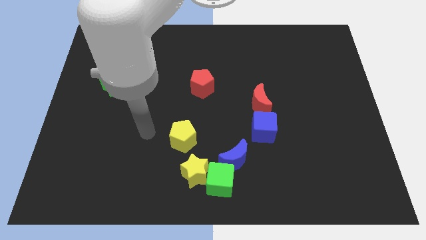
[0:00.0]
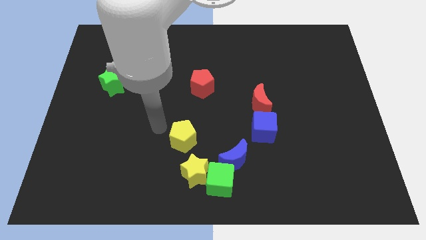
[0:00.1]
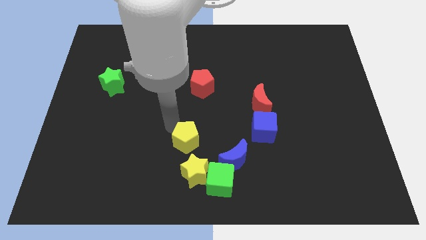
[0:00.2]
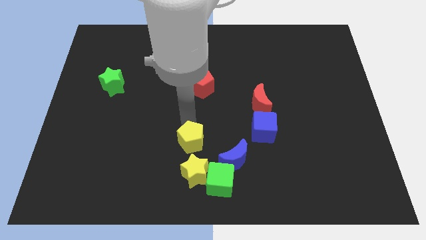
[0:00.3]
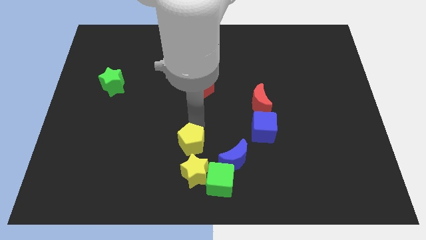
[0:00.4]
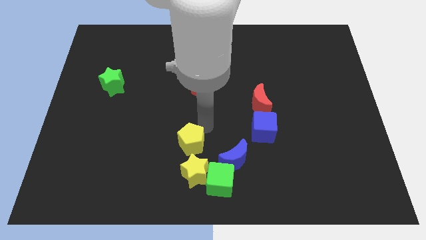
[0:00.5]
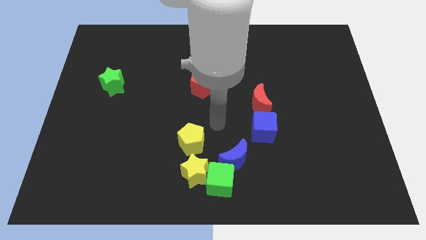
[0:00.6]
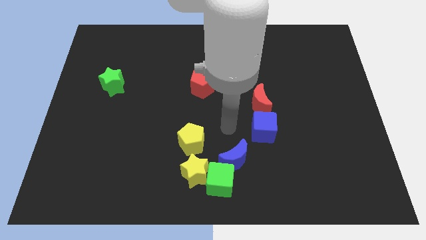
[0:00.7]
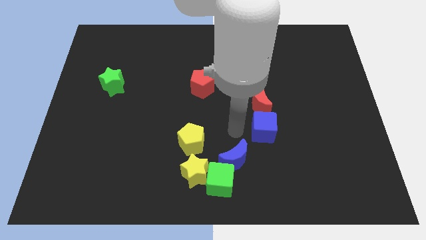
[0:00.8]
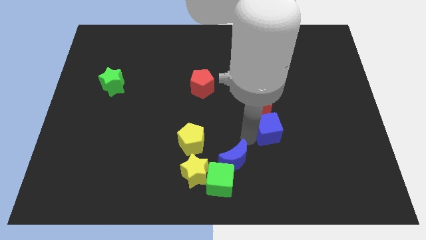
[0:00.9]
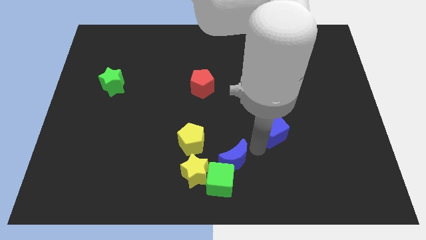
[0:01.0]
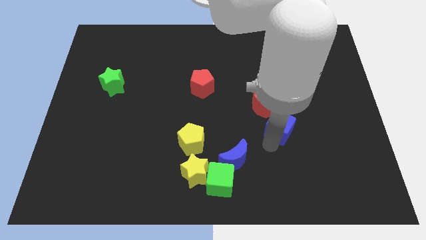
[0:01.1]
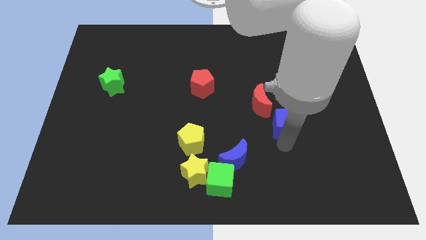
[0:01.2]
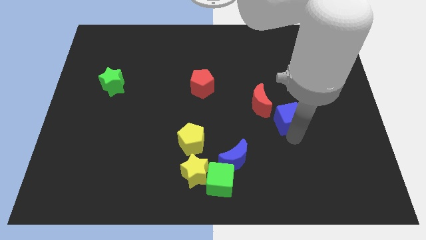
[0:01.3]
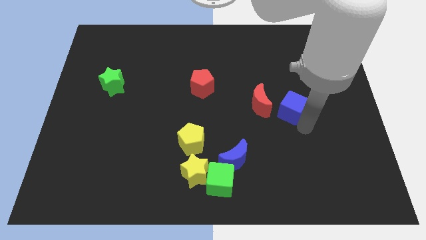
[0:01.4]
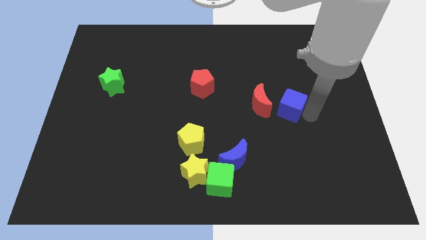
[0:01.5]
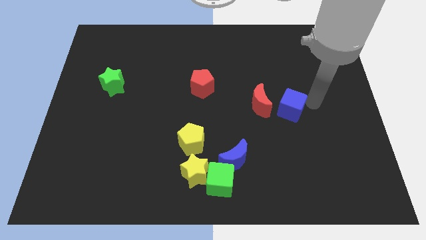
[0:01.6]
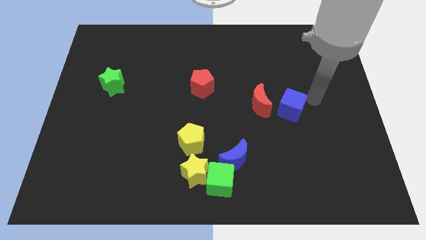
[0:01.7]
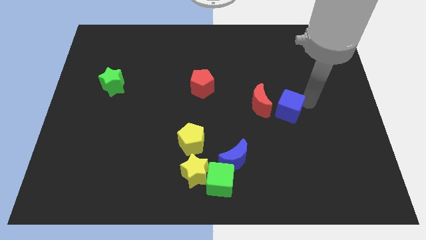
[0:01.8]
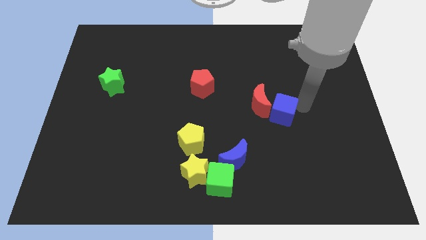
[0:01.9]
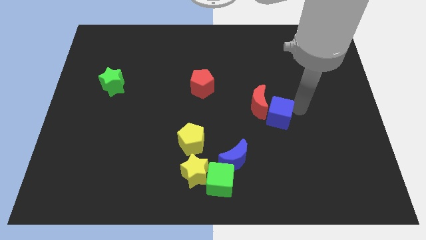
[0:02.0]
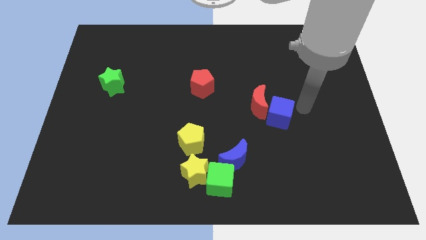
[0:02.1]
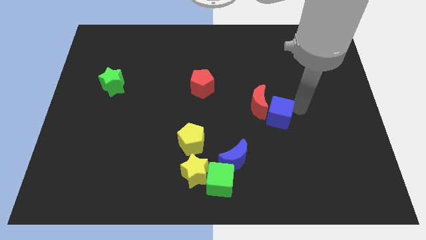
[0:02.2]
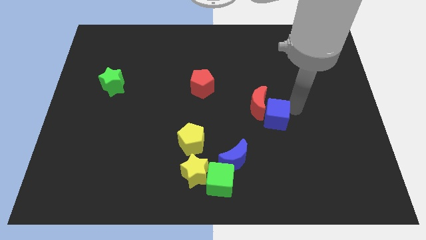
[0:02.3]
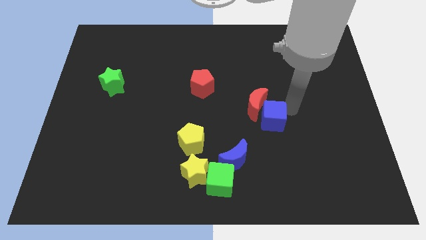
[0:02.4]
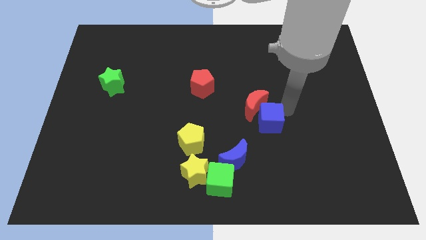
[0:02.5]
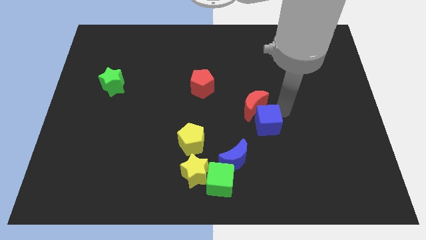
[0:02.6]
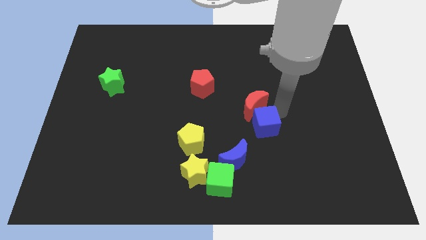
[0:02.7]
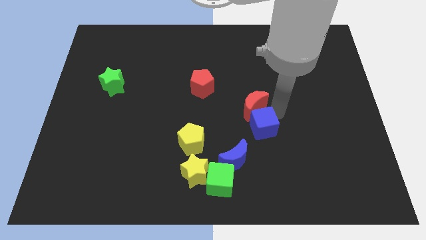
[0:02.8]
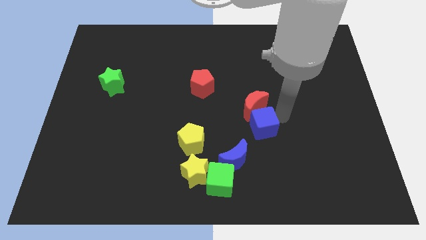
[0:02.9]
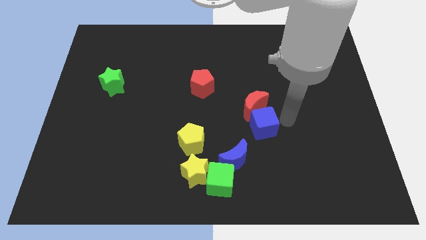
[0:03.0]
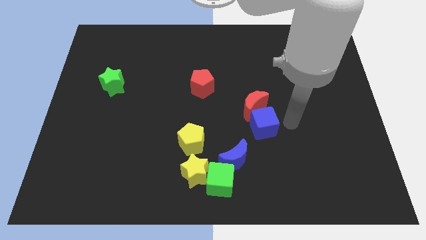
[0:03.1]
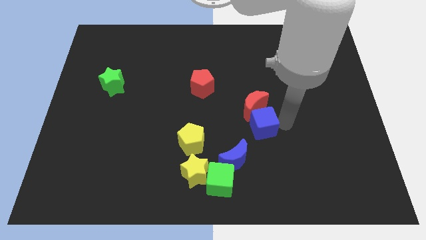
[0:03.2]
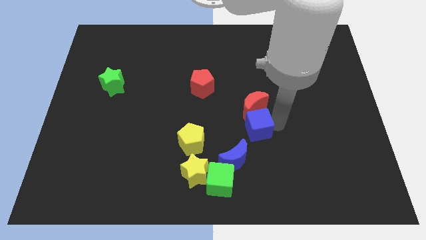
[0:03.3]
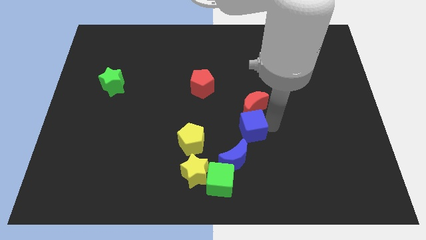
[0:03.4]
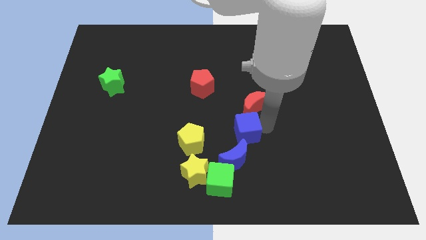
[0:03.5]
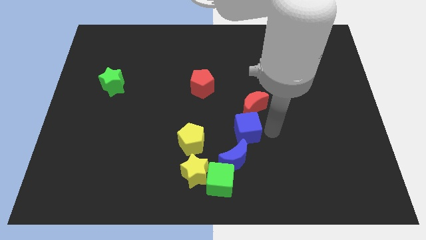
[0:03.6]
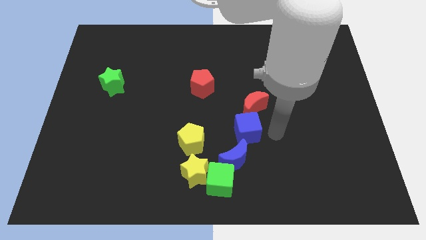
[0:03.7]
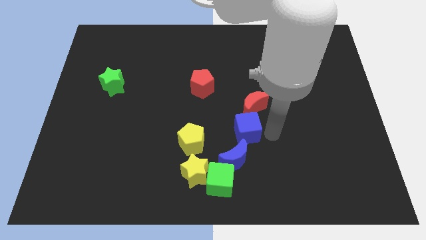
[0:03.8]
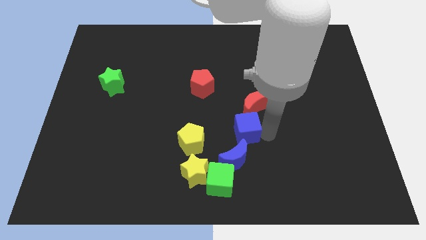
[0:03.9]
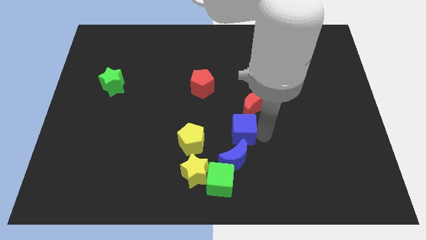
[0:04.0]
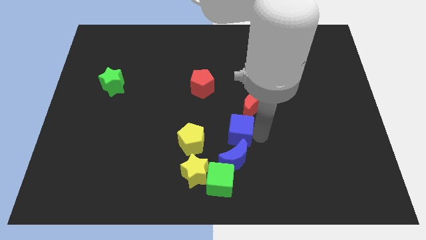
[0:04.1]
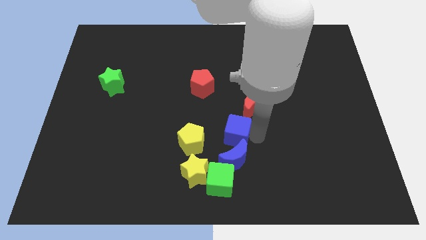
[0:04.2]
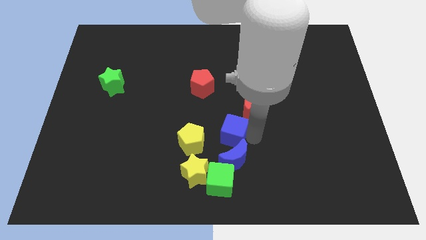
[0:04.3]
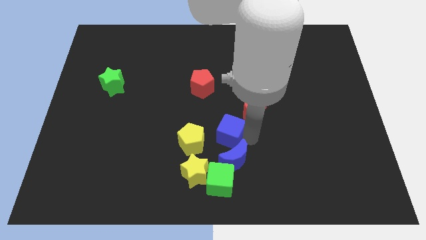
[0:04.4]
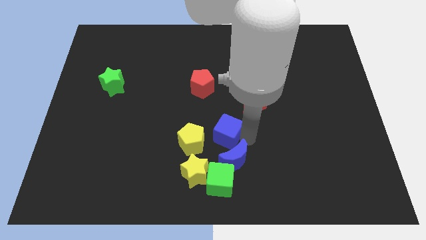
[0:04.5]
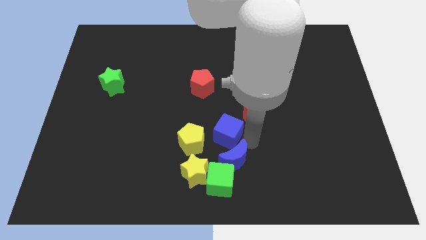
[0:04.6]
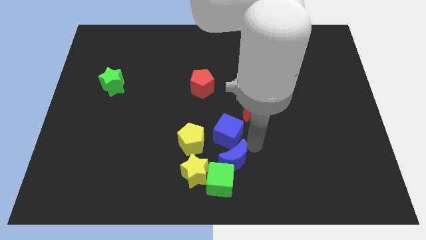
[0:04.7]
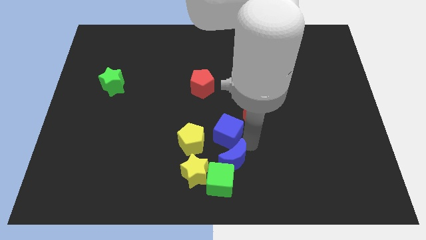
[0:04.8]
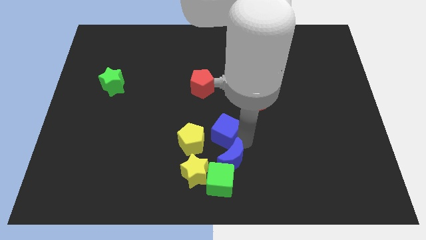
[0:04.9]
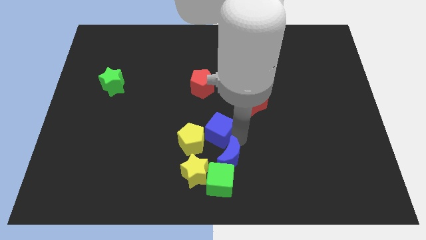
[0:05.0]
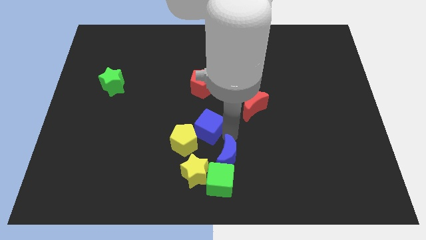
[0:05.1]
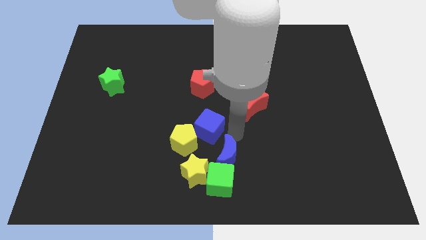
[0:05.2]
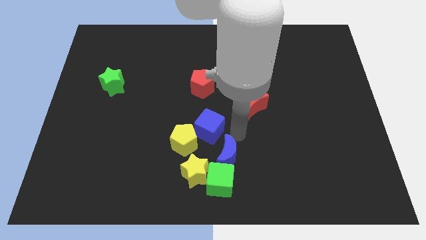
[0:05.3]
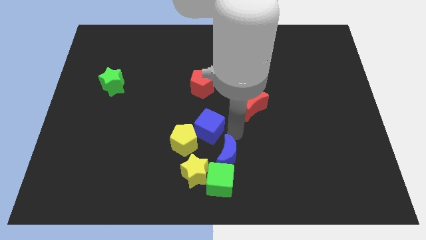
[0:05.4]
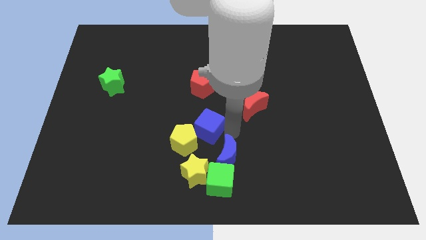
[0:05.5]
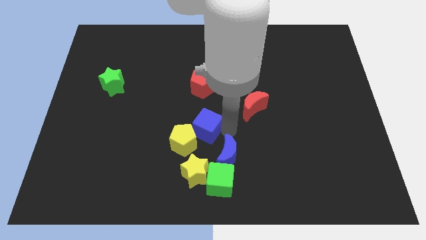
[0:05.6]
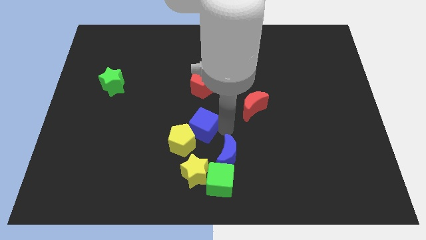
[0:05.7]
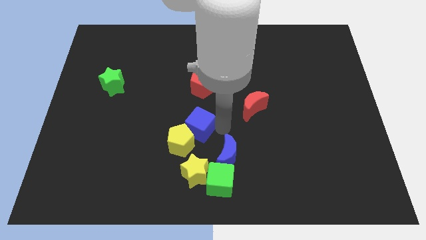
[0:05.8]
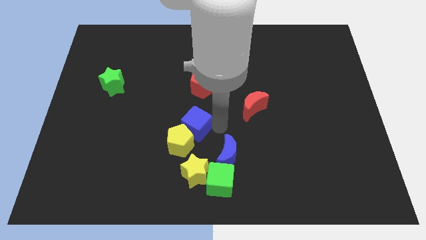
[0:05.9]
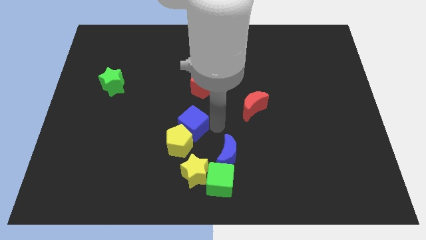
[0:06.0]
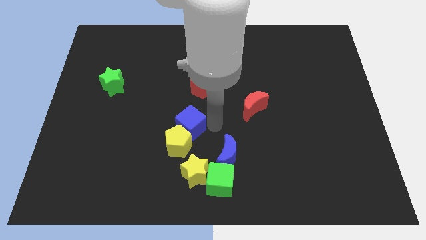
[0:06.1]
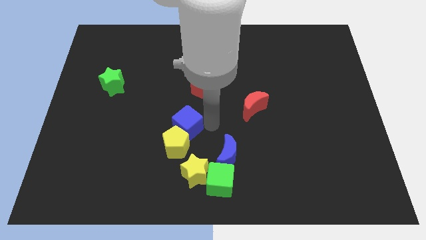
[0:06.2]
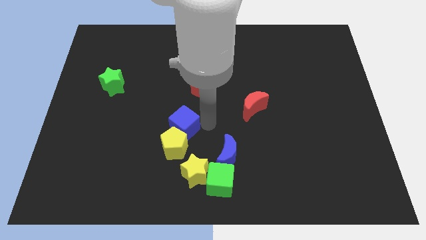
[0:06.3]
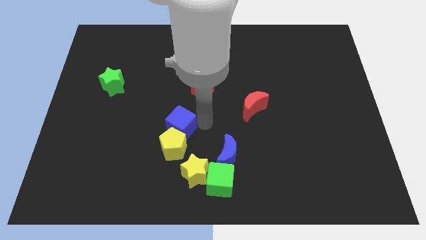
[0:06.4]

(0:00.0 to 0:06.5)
push the blue cube to the top left of the yellow pentagon

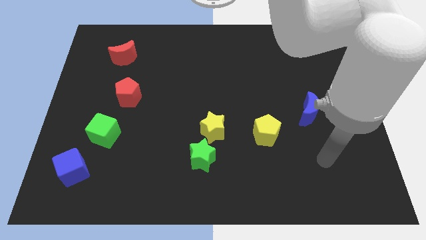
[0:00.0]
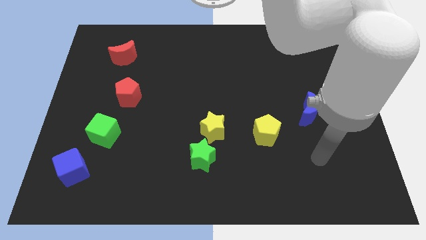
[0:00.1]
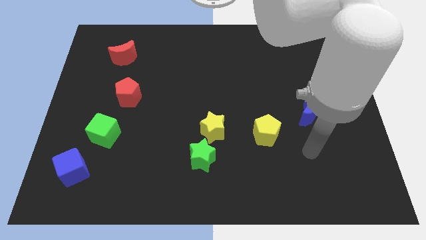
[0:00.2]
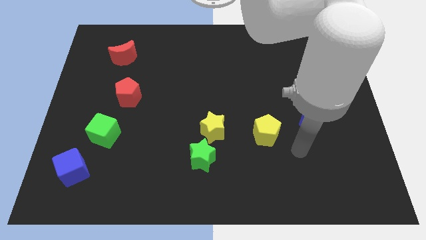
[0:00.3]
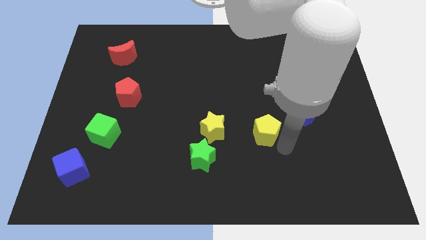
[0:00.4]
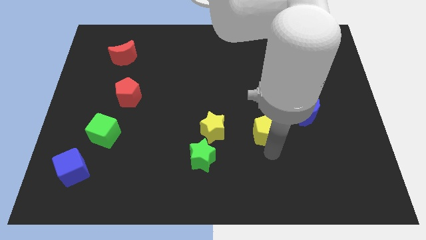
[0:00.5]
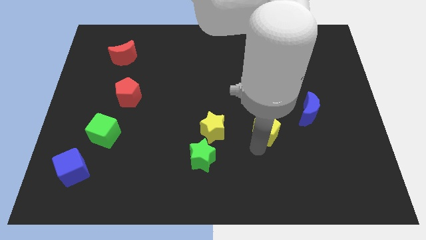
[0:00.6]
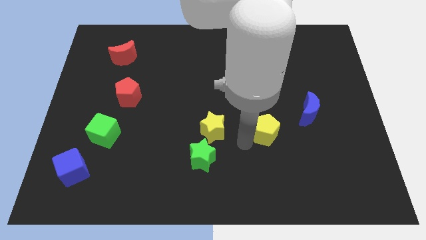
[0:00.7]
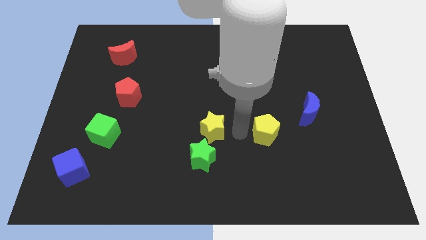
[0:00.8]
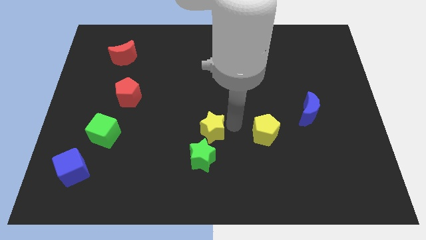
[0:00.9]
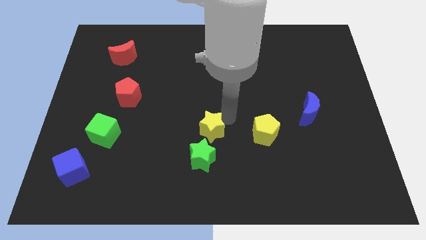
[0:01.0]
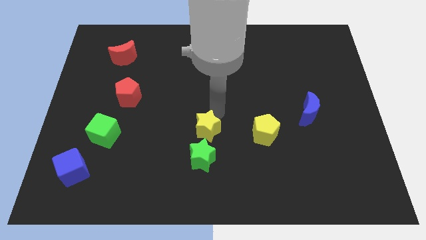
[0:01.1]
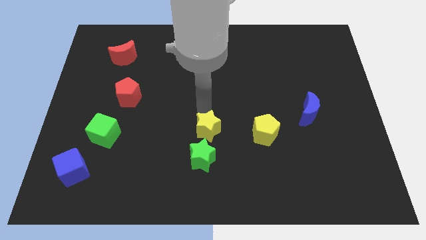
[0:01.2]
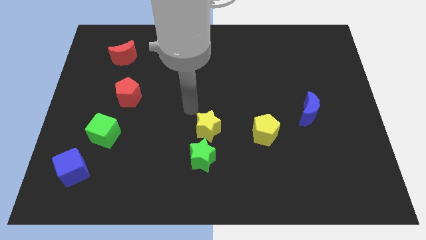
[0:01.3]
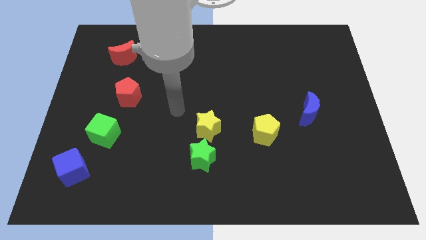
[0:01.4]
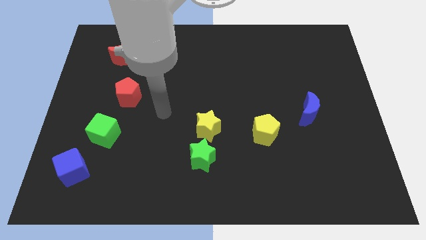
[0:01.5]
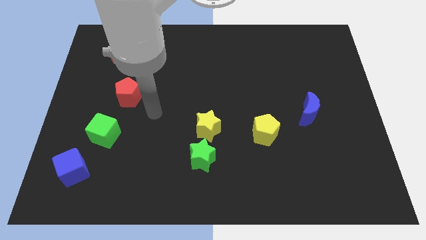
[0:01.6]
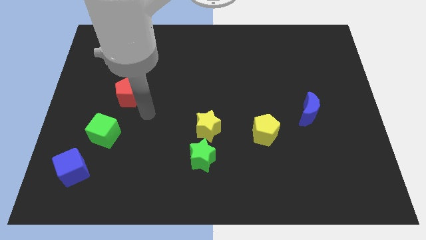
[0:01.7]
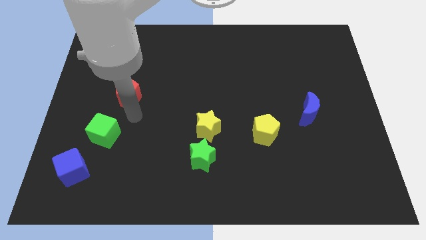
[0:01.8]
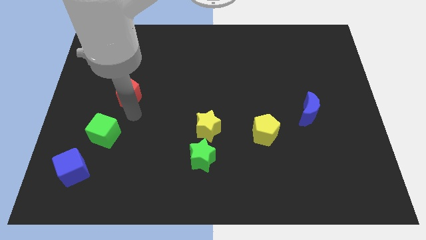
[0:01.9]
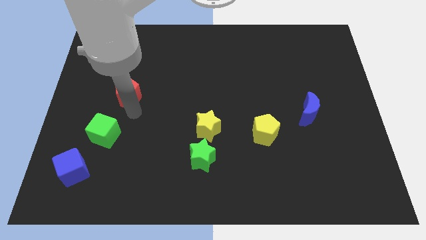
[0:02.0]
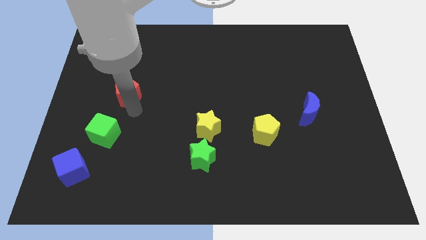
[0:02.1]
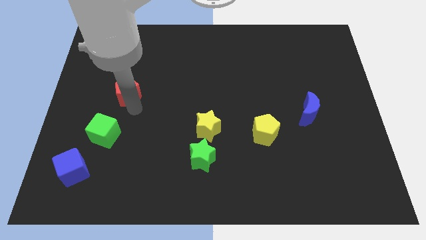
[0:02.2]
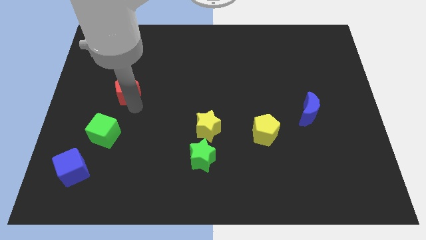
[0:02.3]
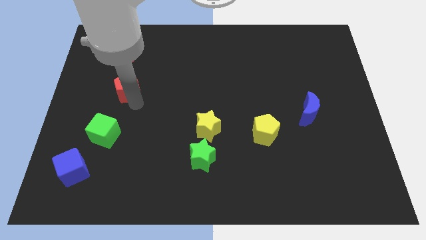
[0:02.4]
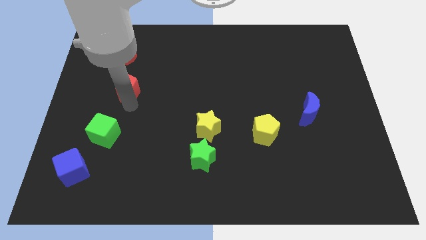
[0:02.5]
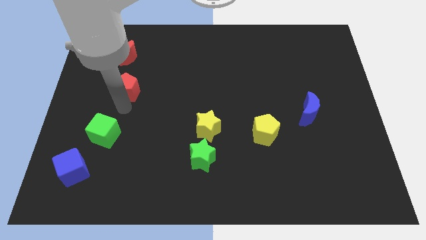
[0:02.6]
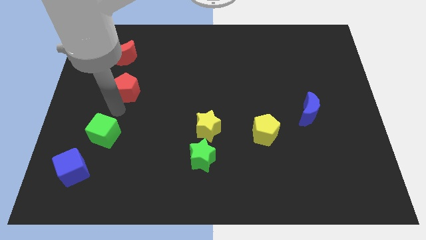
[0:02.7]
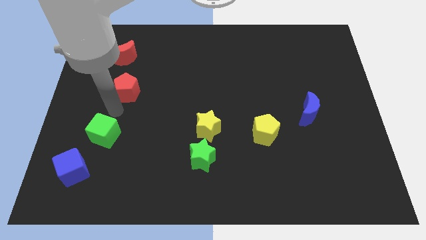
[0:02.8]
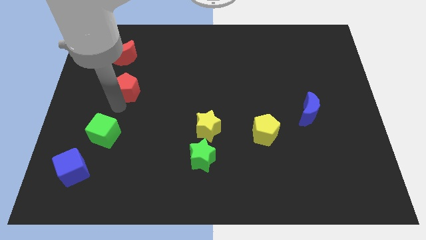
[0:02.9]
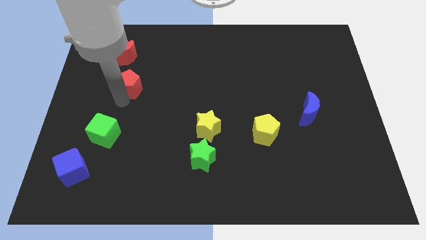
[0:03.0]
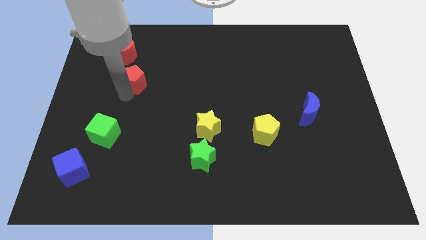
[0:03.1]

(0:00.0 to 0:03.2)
push the red pentagon diagonally down and to the right of the red moon
